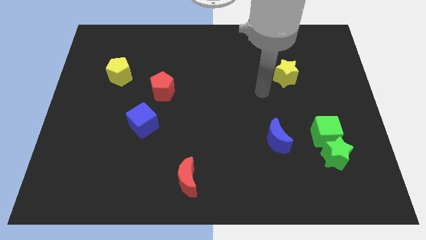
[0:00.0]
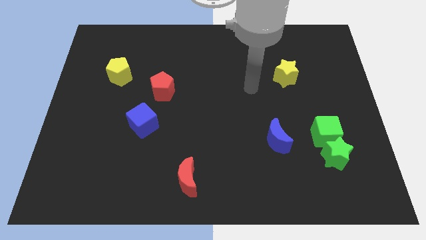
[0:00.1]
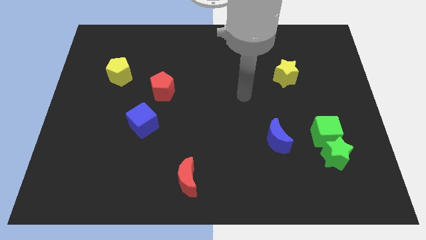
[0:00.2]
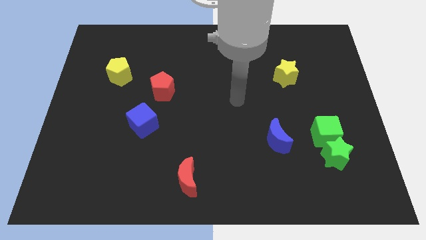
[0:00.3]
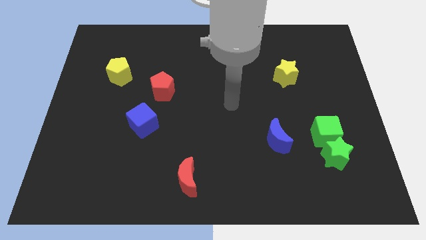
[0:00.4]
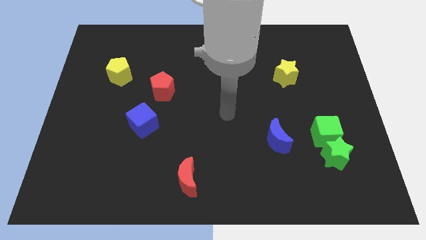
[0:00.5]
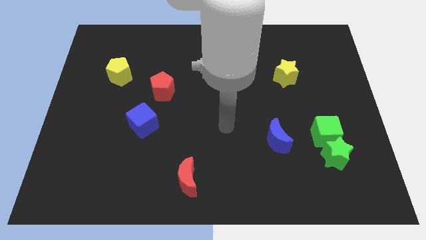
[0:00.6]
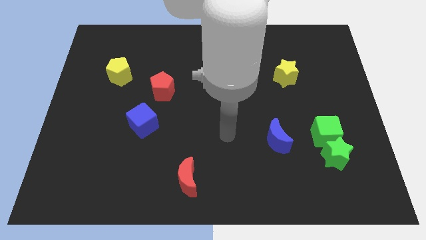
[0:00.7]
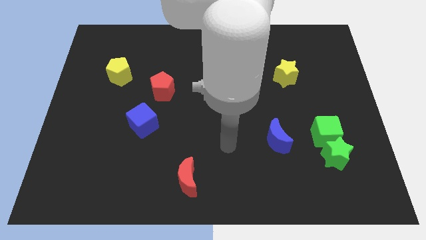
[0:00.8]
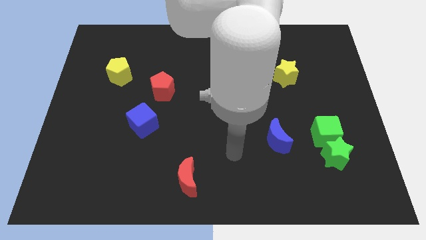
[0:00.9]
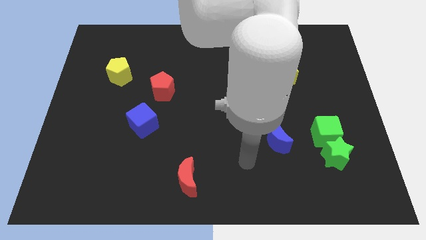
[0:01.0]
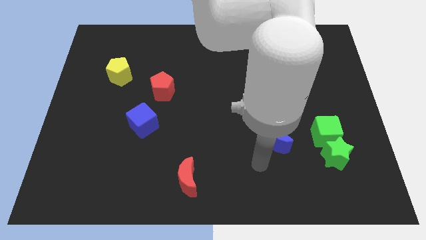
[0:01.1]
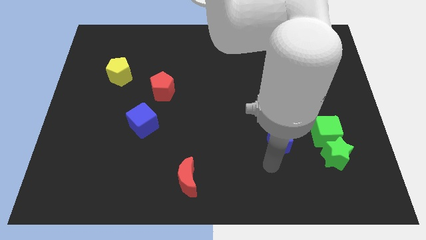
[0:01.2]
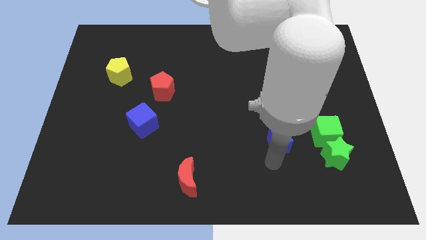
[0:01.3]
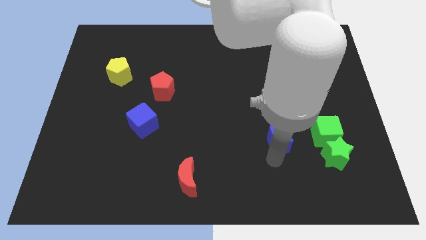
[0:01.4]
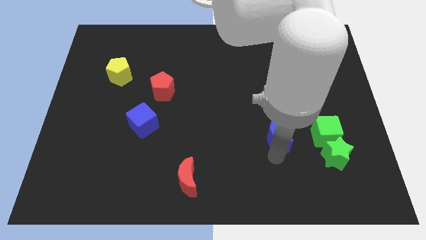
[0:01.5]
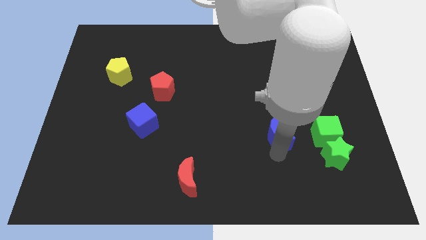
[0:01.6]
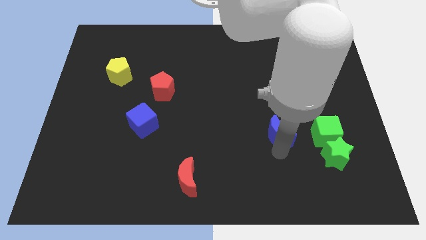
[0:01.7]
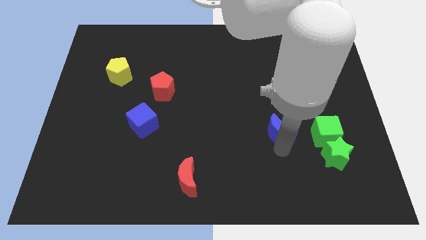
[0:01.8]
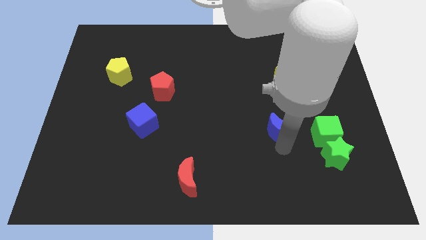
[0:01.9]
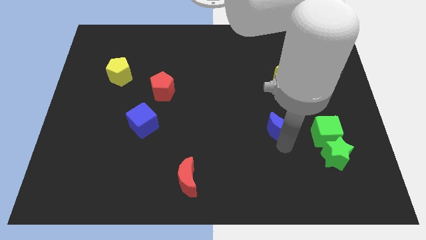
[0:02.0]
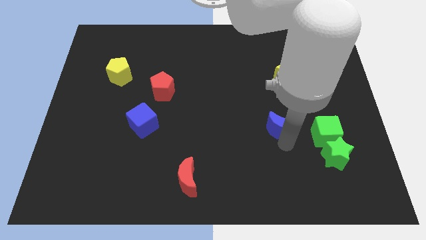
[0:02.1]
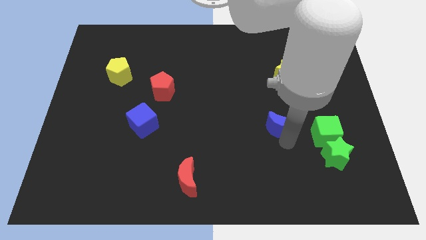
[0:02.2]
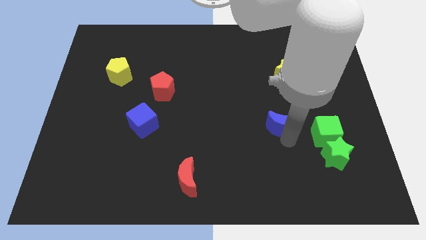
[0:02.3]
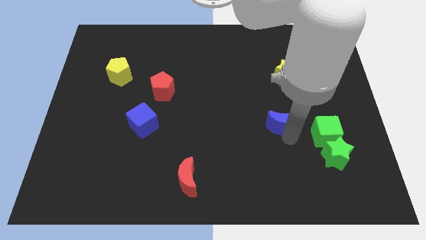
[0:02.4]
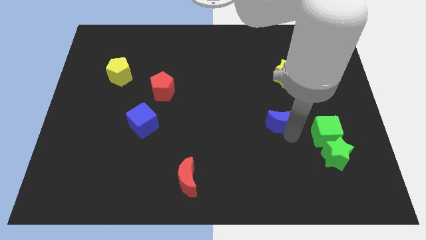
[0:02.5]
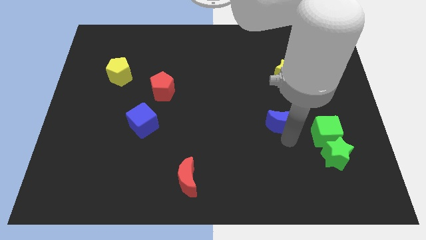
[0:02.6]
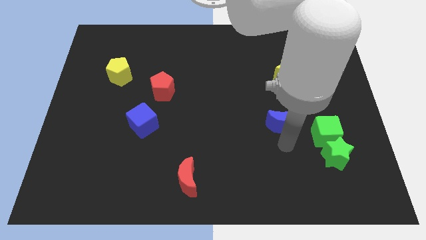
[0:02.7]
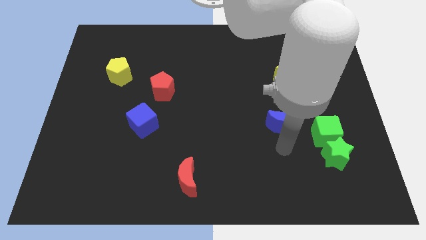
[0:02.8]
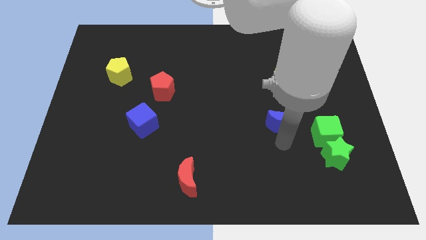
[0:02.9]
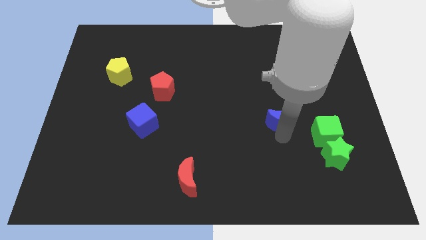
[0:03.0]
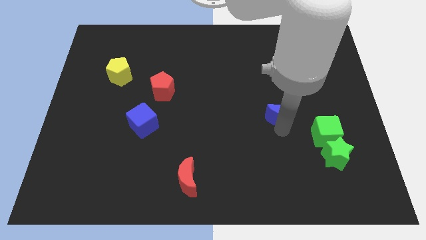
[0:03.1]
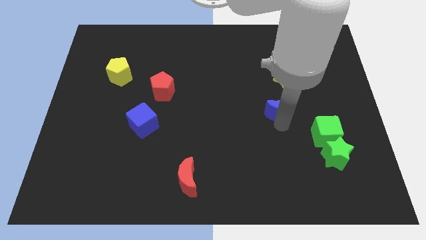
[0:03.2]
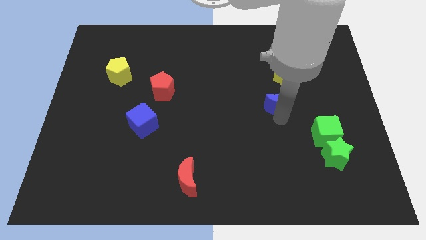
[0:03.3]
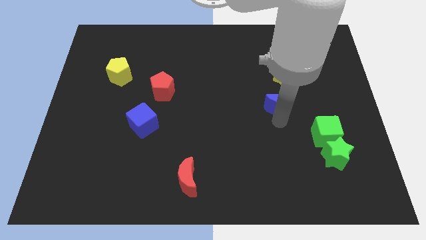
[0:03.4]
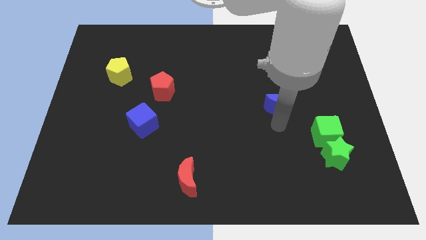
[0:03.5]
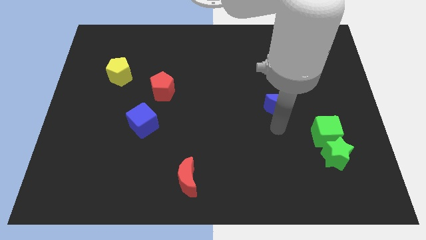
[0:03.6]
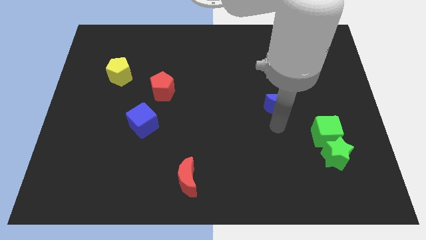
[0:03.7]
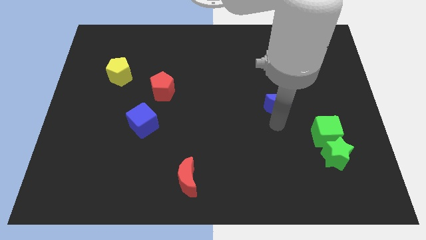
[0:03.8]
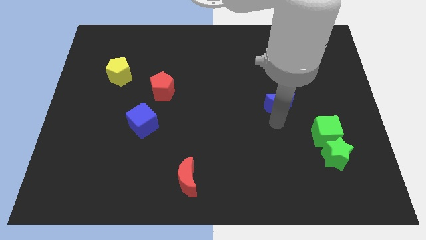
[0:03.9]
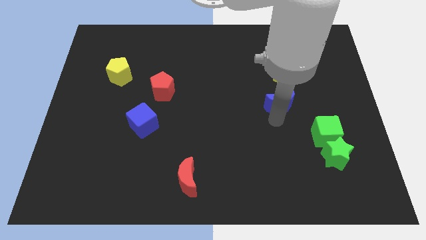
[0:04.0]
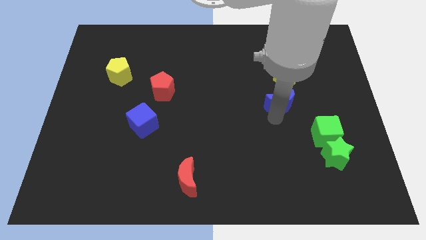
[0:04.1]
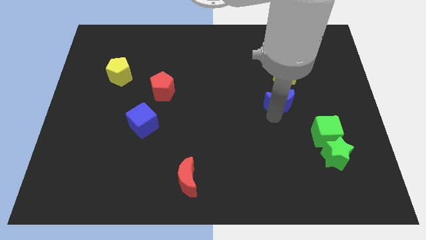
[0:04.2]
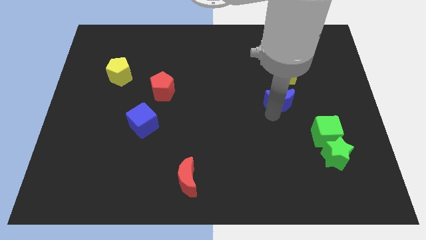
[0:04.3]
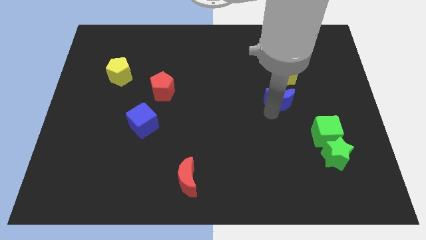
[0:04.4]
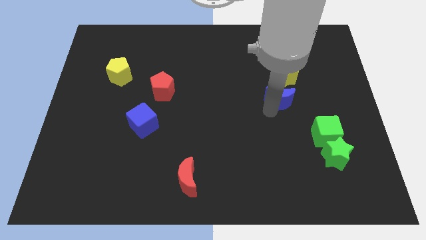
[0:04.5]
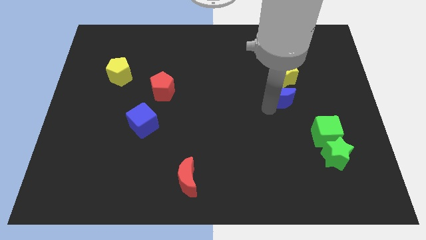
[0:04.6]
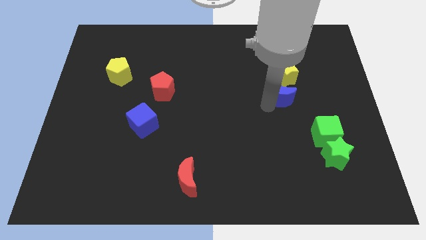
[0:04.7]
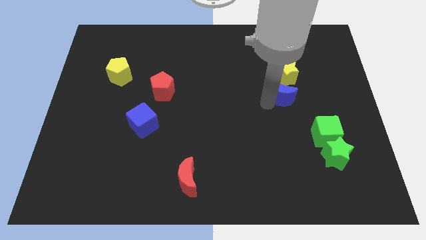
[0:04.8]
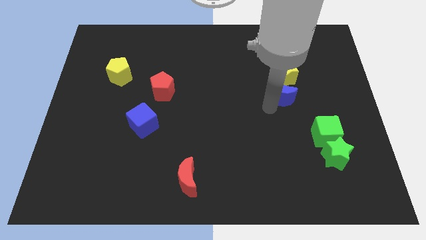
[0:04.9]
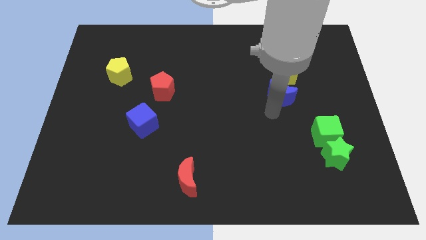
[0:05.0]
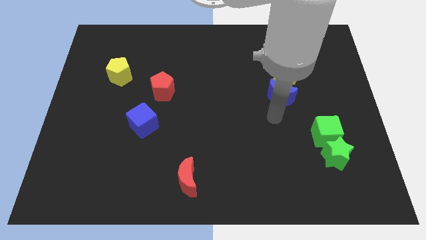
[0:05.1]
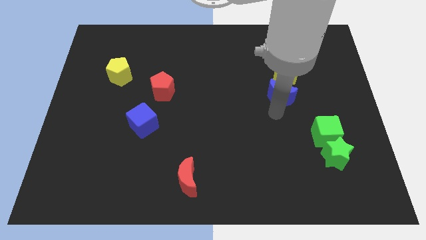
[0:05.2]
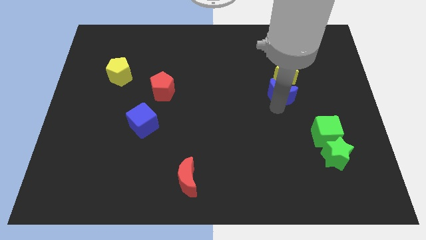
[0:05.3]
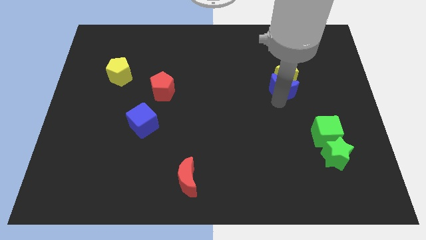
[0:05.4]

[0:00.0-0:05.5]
slide the blue moon to the yellow star

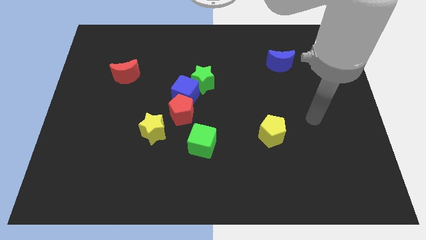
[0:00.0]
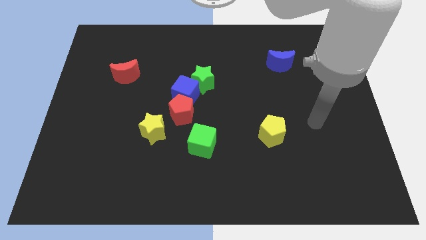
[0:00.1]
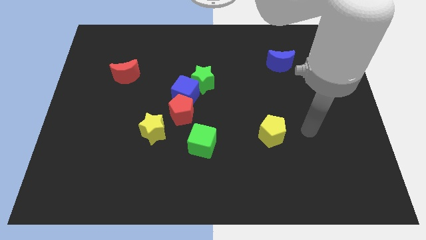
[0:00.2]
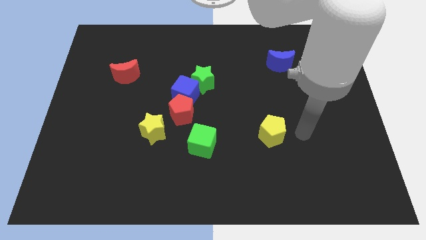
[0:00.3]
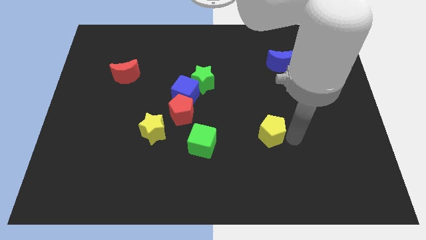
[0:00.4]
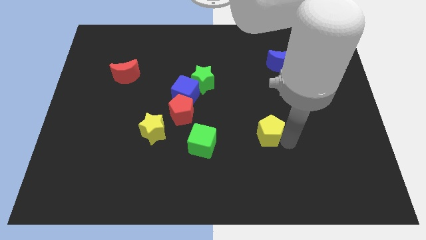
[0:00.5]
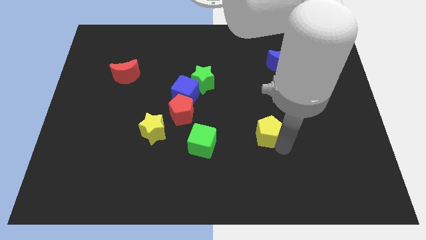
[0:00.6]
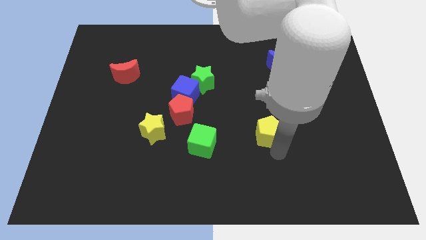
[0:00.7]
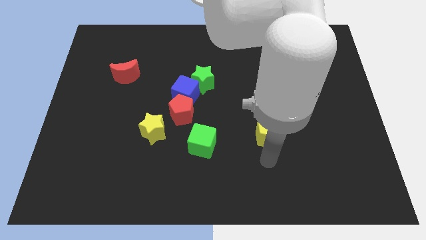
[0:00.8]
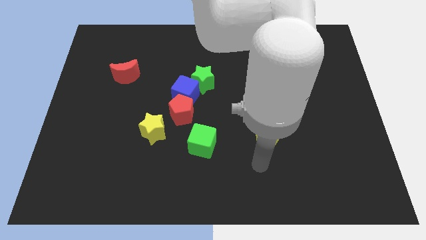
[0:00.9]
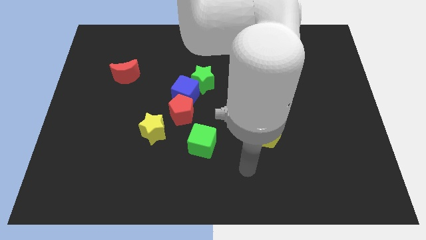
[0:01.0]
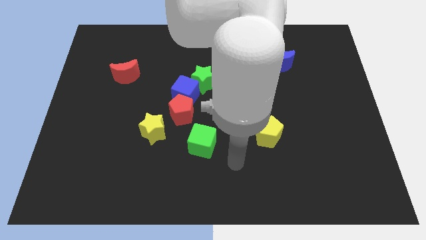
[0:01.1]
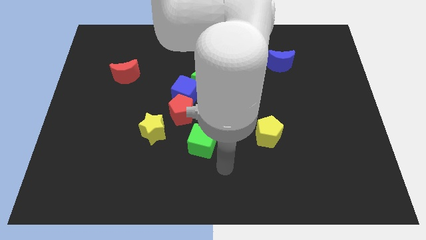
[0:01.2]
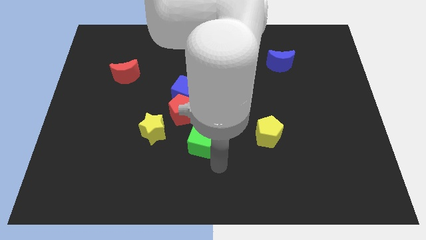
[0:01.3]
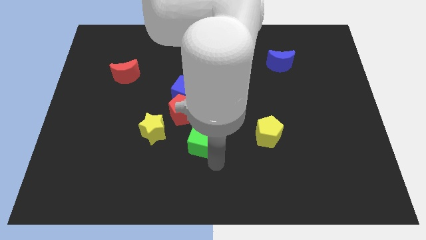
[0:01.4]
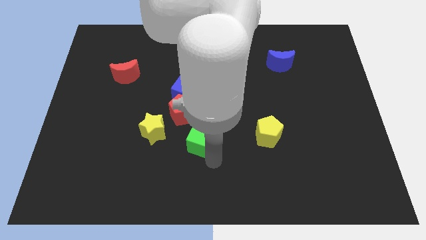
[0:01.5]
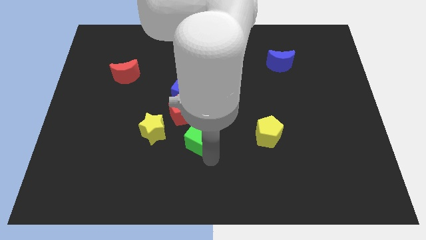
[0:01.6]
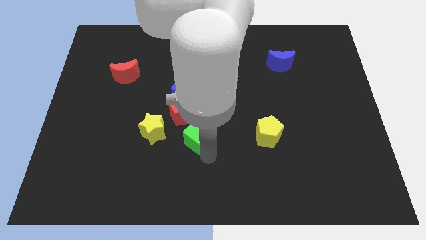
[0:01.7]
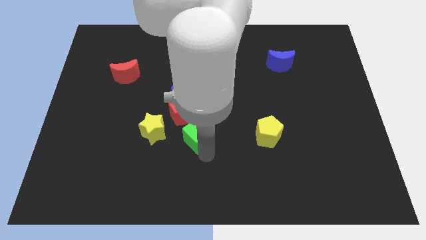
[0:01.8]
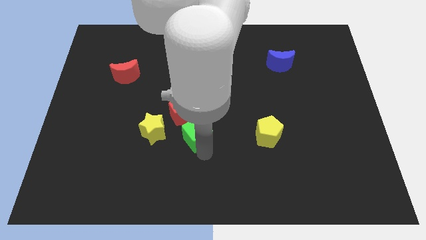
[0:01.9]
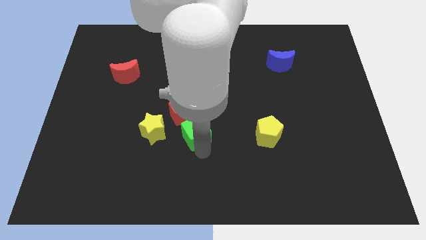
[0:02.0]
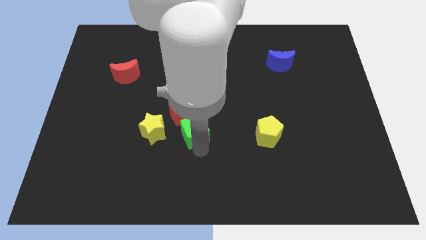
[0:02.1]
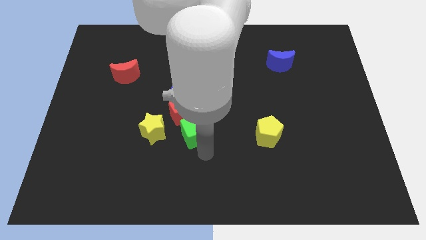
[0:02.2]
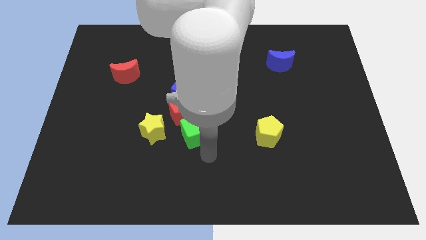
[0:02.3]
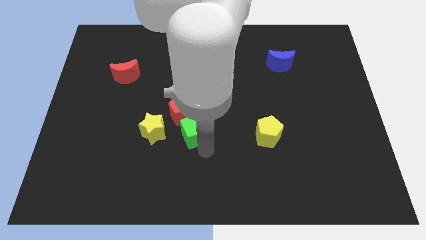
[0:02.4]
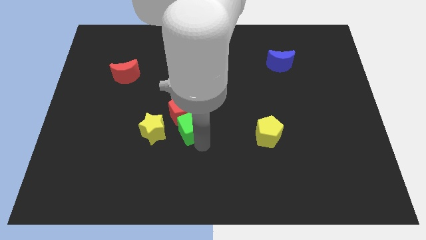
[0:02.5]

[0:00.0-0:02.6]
slide the green cube towards the red pentagon

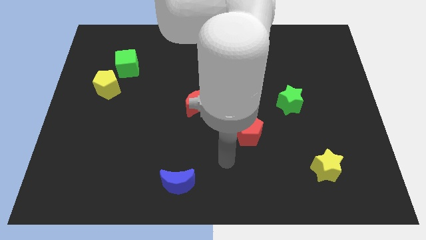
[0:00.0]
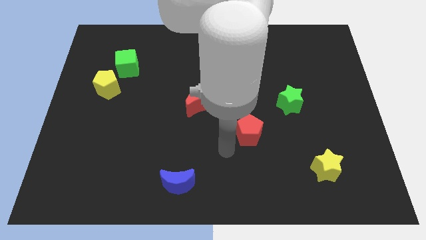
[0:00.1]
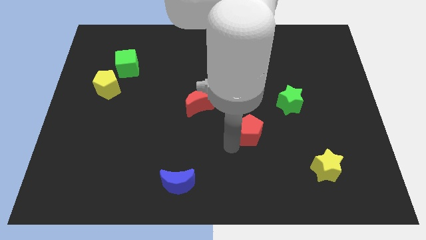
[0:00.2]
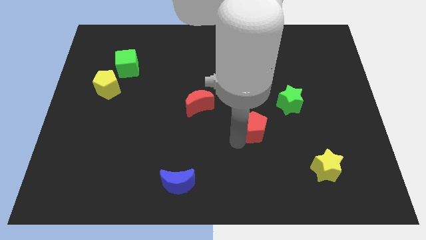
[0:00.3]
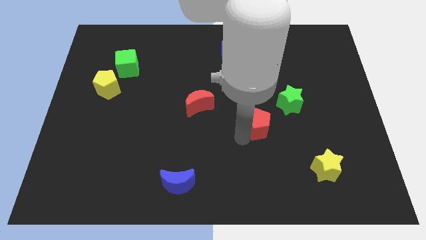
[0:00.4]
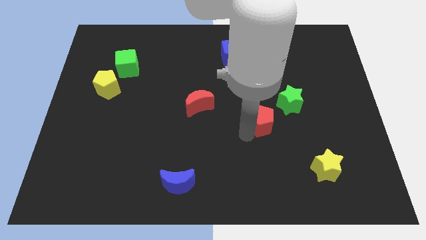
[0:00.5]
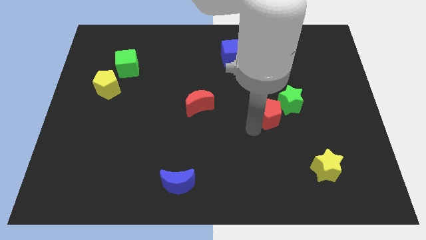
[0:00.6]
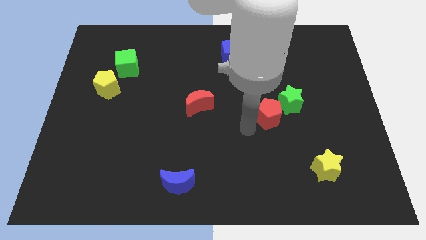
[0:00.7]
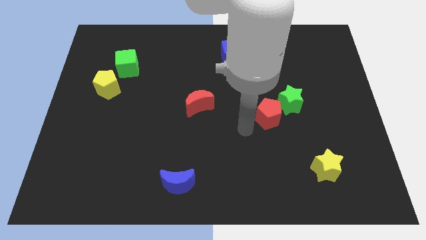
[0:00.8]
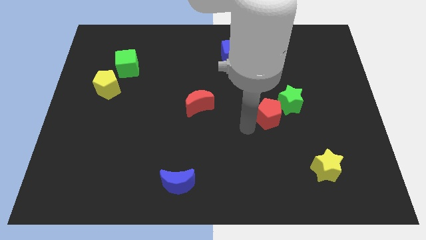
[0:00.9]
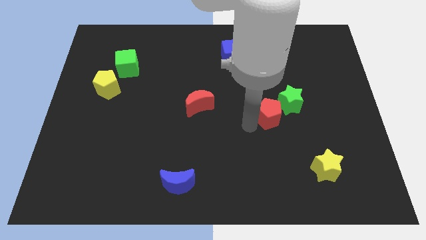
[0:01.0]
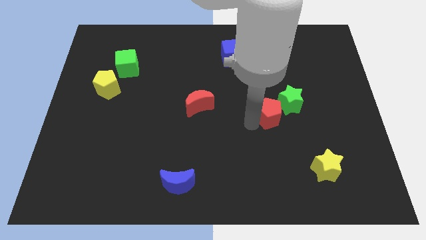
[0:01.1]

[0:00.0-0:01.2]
push the red pentagon towards the green star
